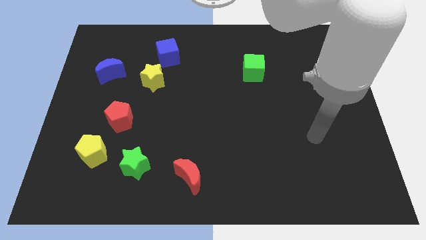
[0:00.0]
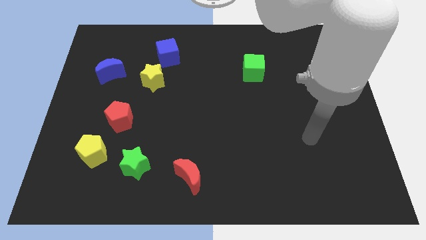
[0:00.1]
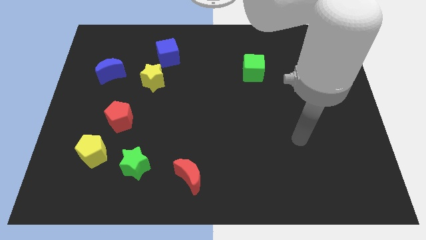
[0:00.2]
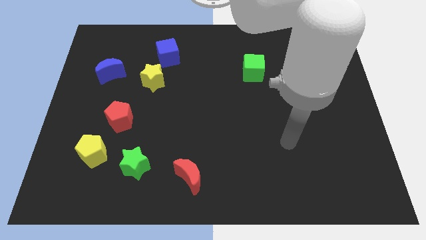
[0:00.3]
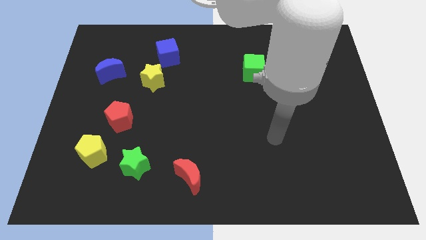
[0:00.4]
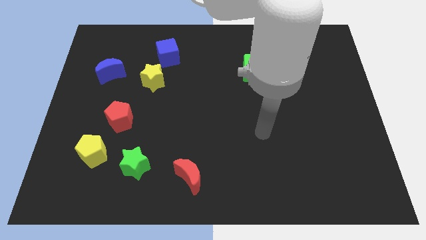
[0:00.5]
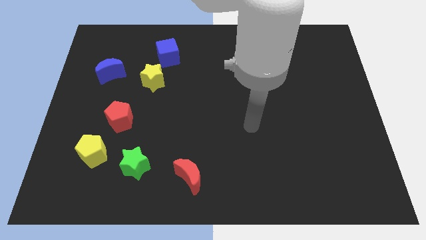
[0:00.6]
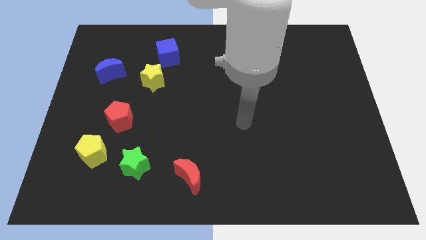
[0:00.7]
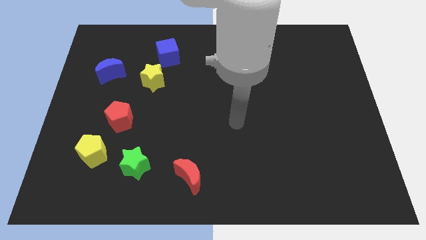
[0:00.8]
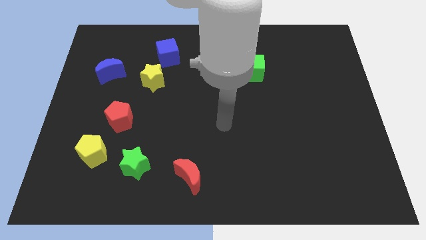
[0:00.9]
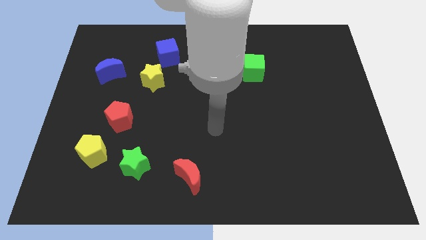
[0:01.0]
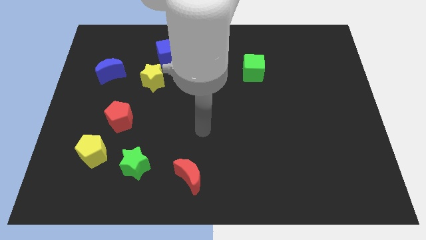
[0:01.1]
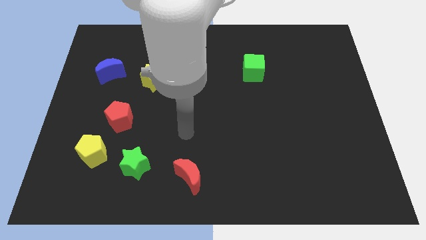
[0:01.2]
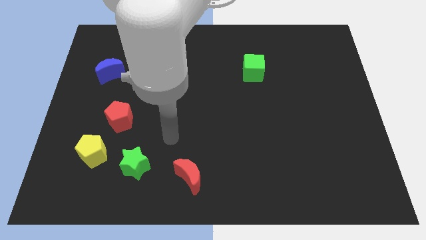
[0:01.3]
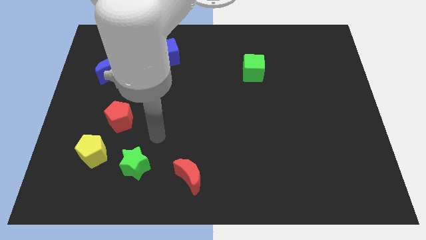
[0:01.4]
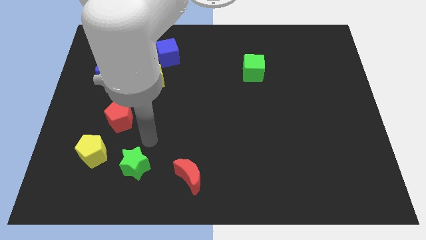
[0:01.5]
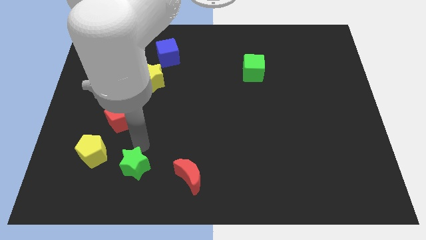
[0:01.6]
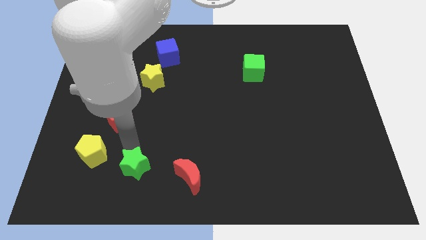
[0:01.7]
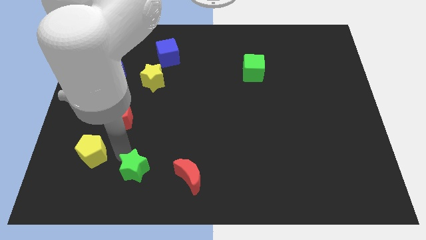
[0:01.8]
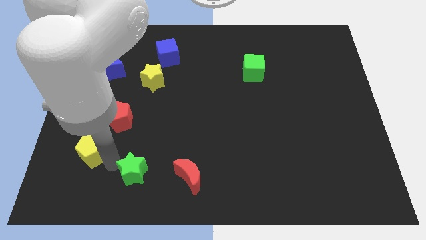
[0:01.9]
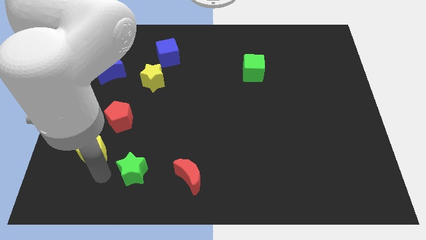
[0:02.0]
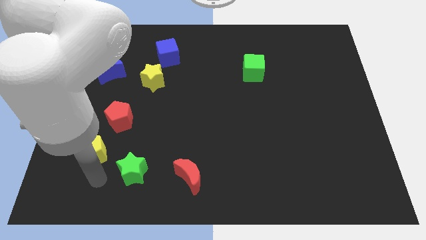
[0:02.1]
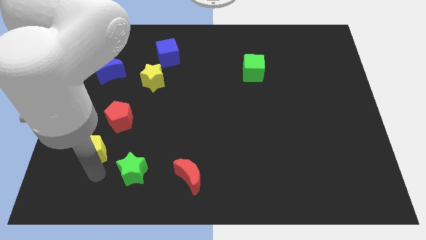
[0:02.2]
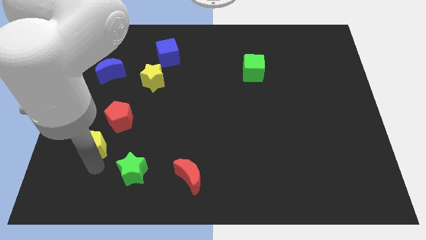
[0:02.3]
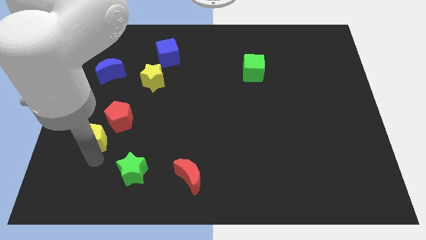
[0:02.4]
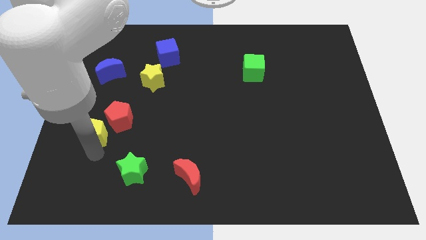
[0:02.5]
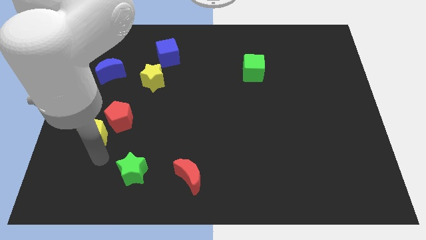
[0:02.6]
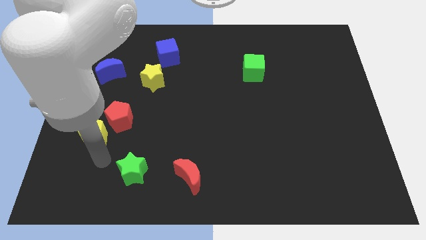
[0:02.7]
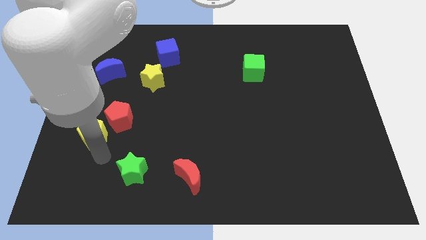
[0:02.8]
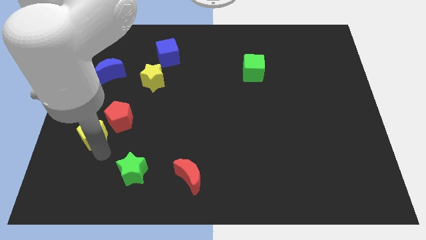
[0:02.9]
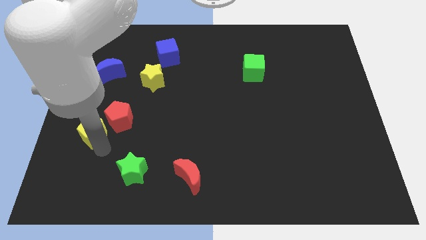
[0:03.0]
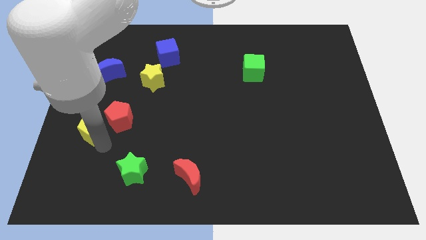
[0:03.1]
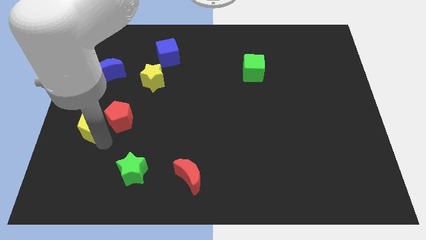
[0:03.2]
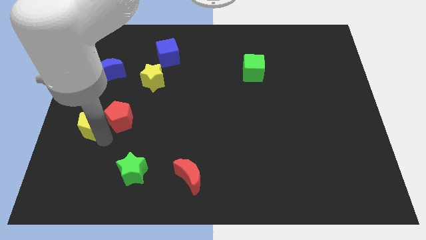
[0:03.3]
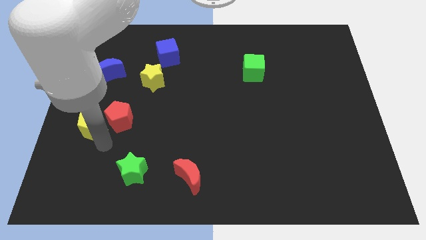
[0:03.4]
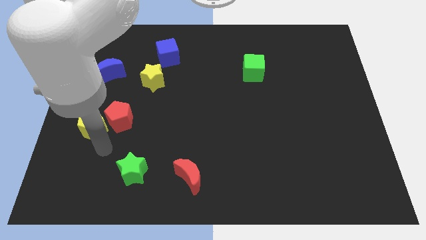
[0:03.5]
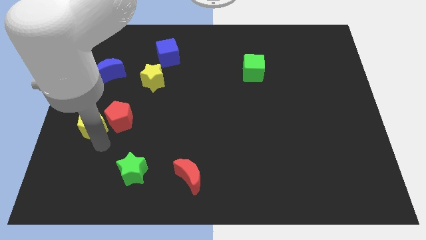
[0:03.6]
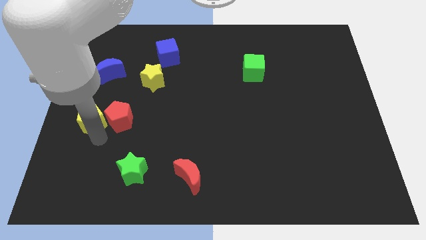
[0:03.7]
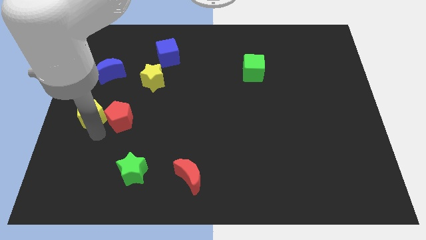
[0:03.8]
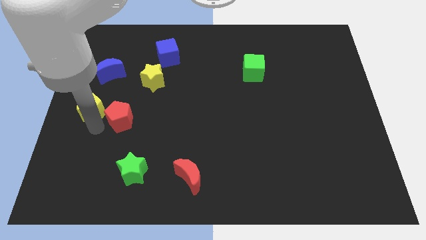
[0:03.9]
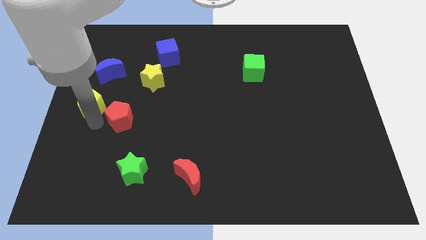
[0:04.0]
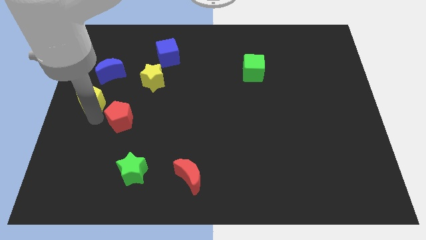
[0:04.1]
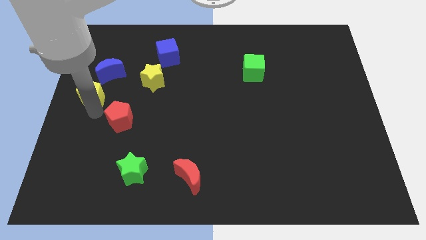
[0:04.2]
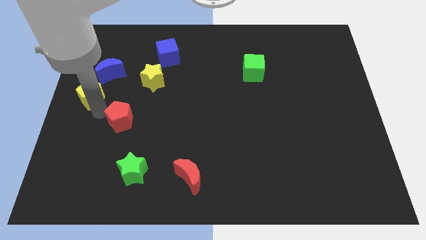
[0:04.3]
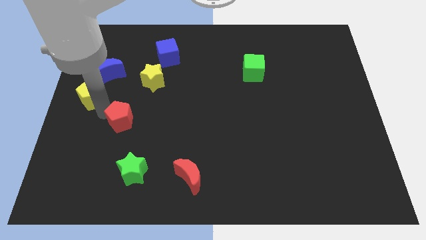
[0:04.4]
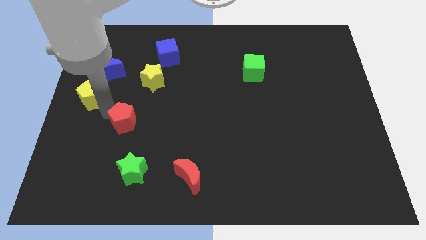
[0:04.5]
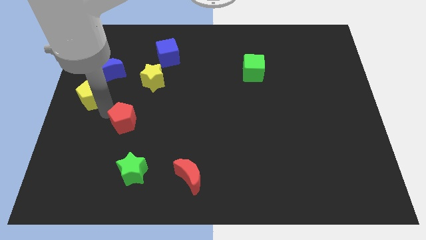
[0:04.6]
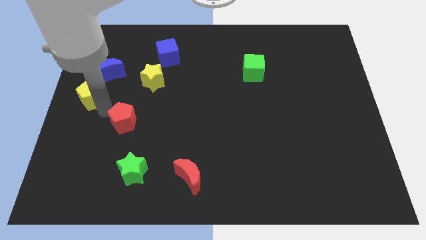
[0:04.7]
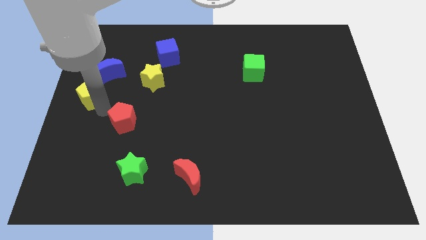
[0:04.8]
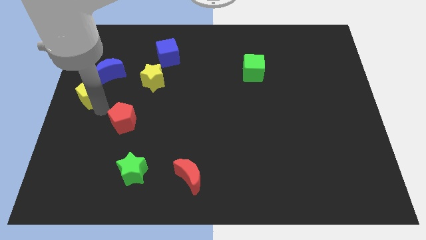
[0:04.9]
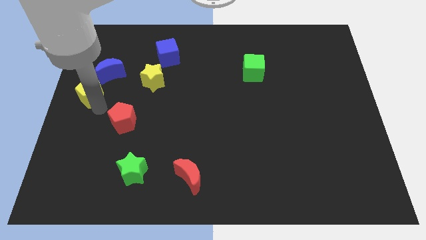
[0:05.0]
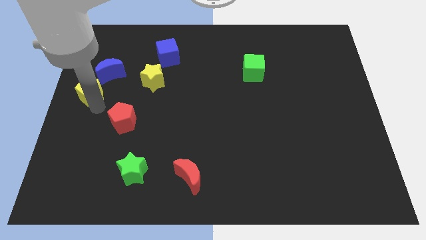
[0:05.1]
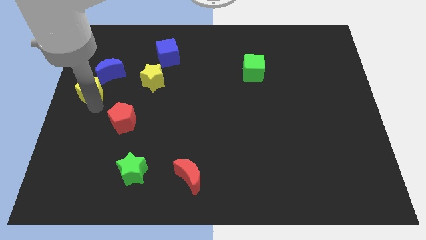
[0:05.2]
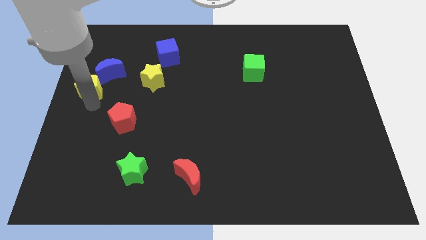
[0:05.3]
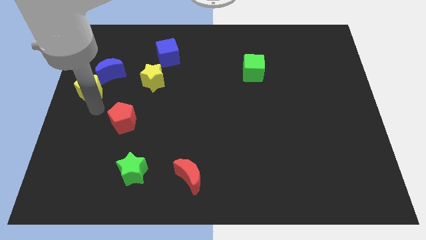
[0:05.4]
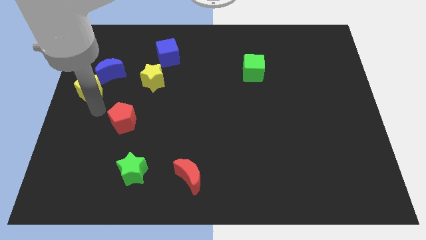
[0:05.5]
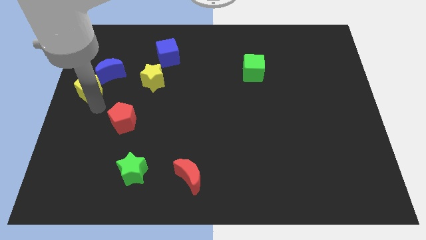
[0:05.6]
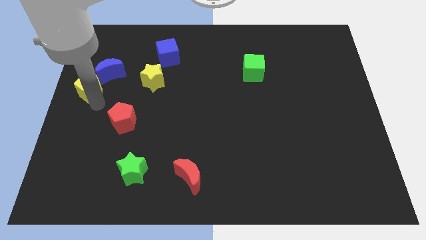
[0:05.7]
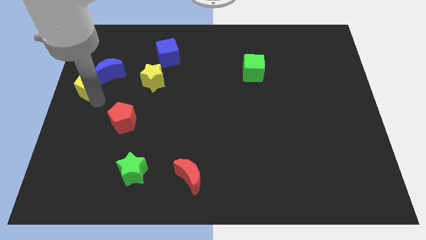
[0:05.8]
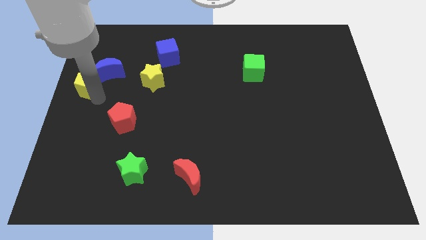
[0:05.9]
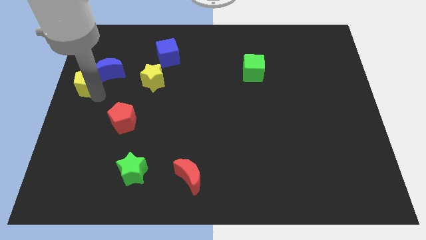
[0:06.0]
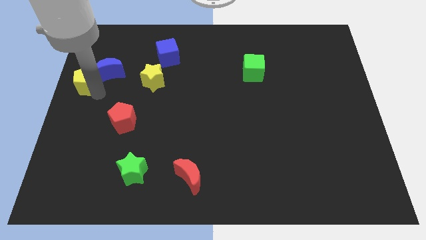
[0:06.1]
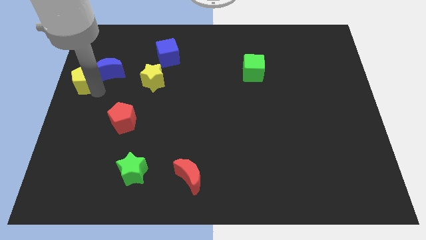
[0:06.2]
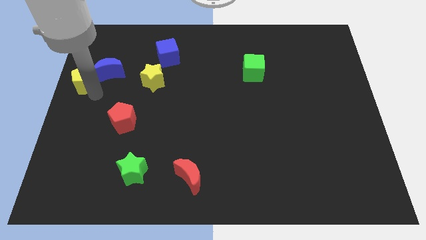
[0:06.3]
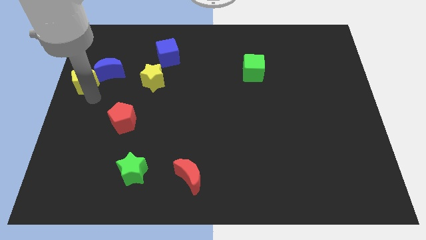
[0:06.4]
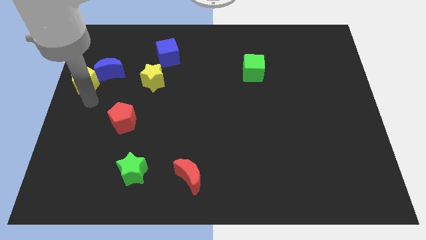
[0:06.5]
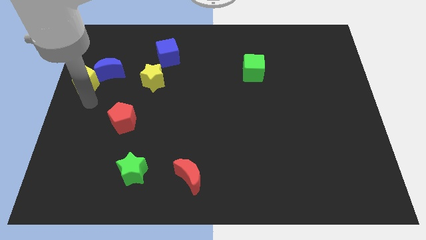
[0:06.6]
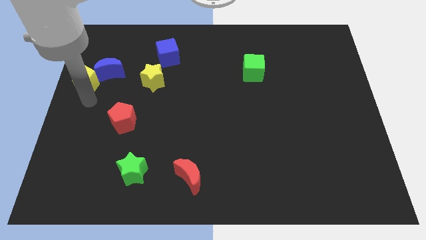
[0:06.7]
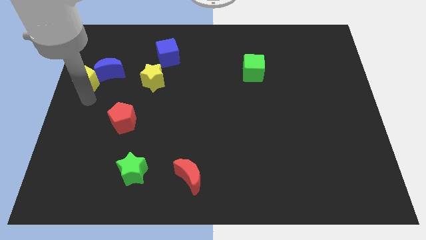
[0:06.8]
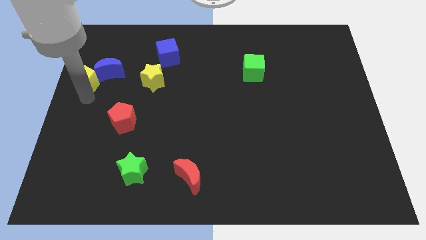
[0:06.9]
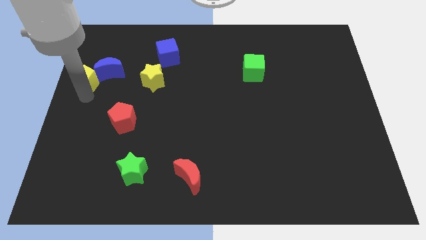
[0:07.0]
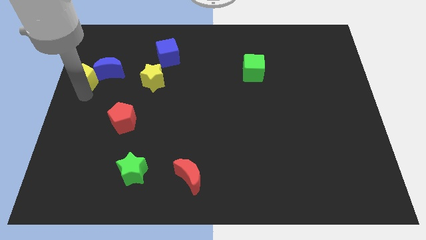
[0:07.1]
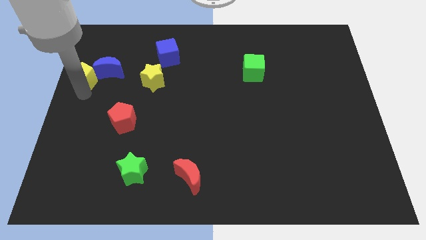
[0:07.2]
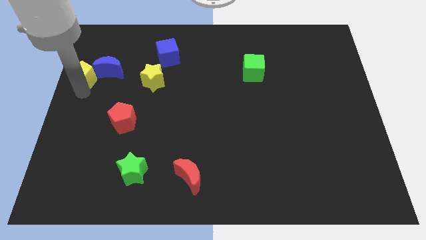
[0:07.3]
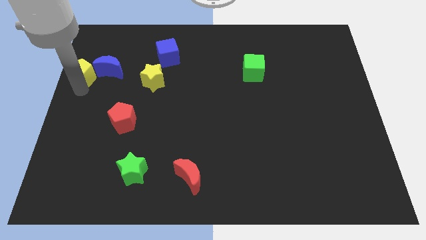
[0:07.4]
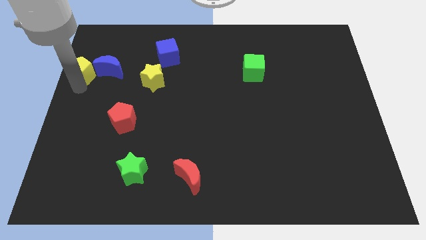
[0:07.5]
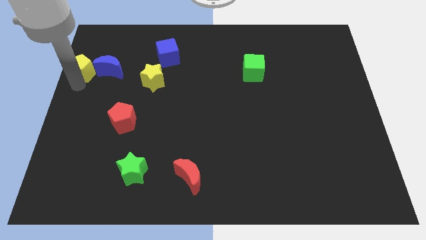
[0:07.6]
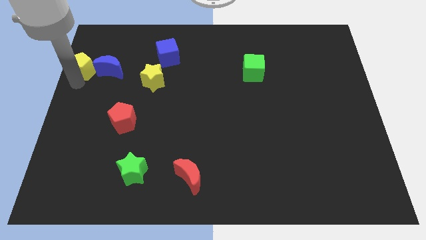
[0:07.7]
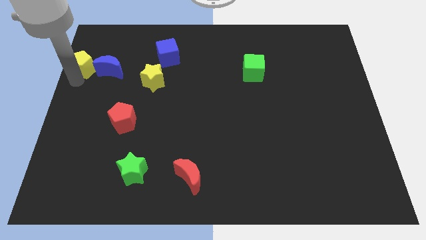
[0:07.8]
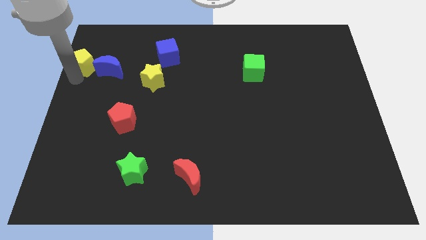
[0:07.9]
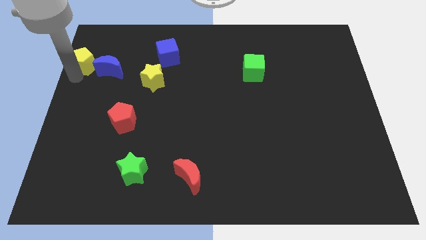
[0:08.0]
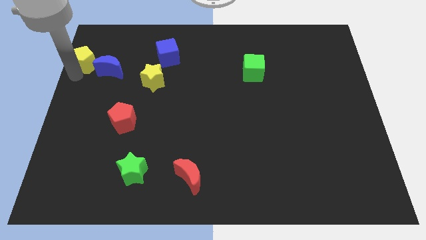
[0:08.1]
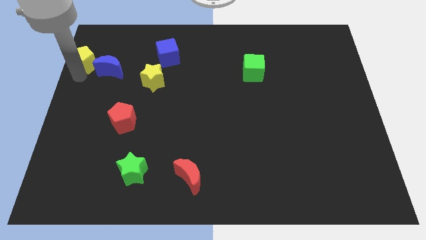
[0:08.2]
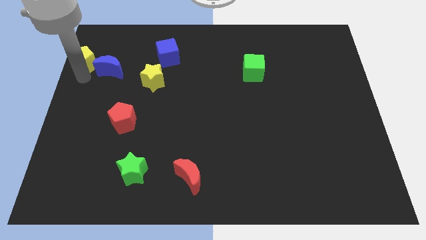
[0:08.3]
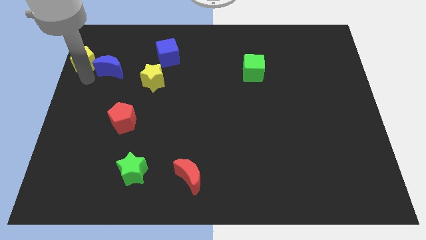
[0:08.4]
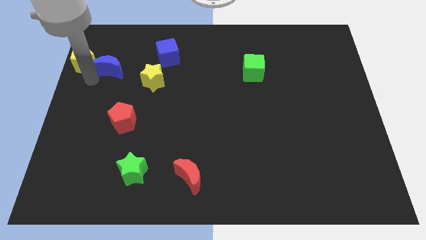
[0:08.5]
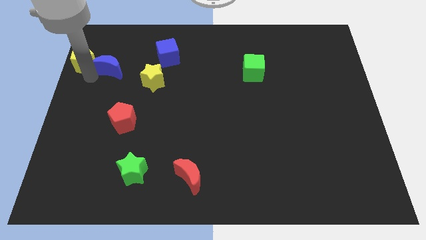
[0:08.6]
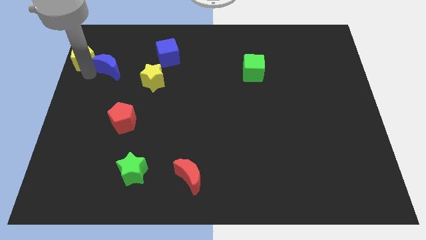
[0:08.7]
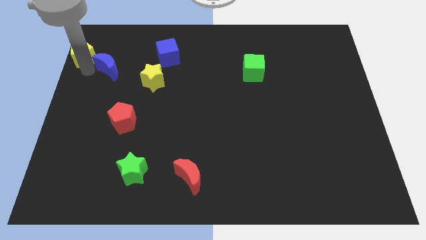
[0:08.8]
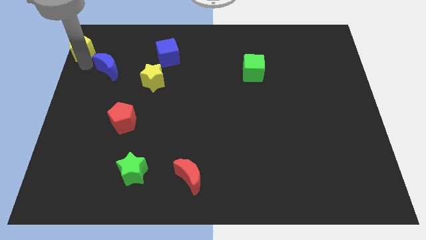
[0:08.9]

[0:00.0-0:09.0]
slide the yellow pentagon to the top left of the board
